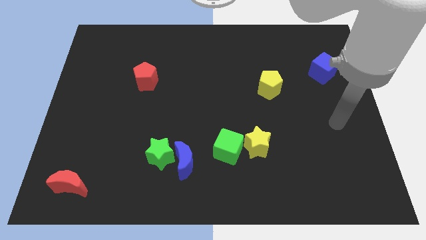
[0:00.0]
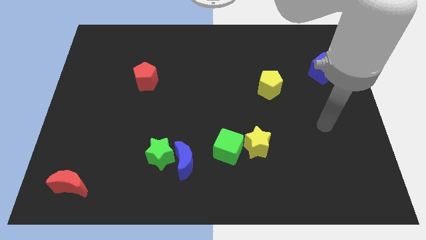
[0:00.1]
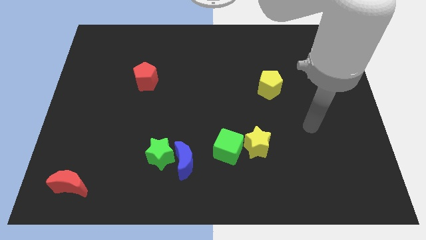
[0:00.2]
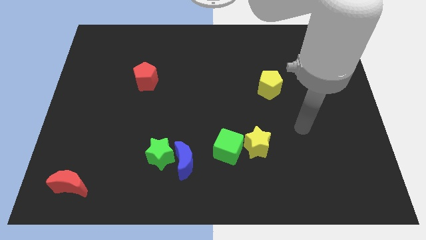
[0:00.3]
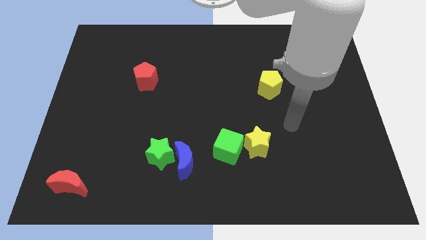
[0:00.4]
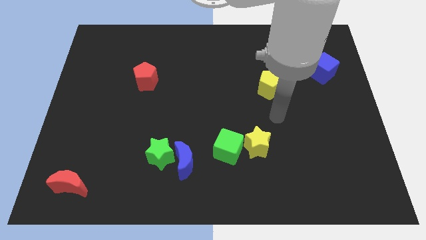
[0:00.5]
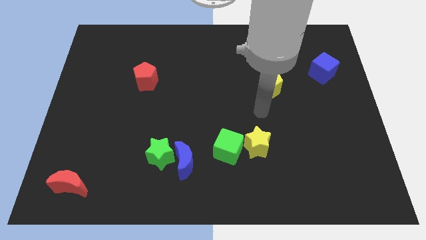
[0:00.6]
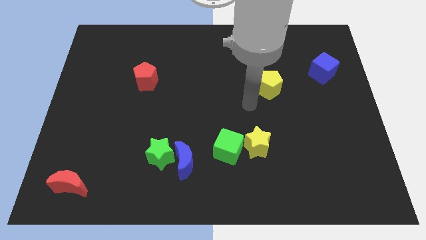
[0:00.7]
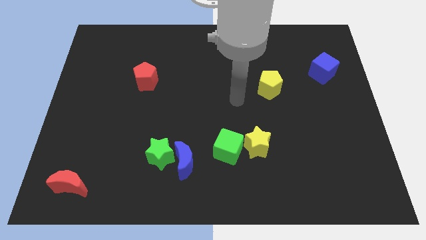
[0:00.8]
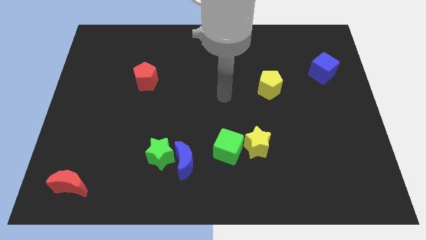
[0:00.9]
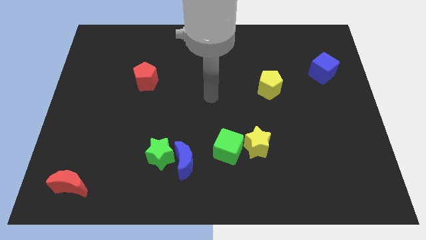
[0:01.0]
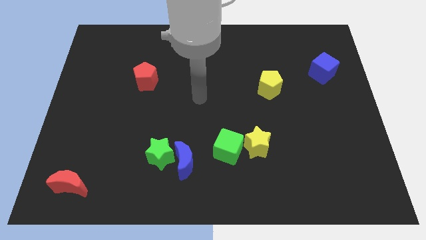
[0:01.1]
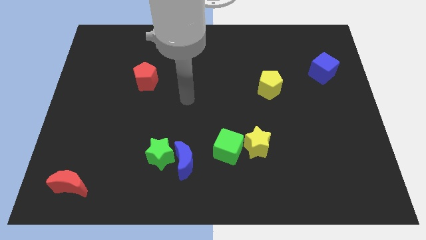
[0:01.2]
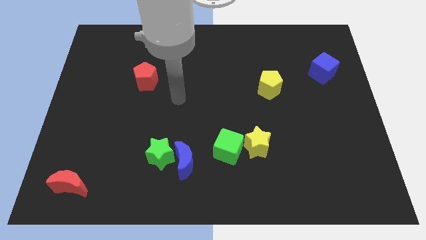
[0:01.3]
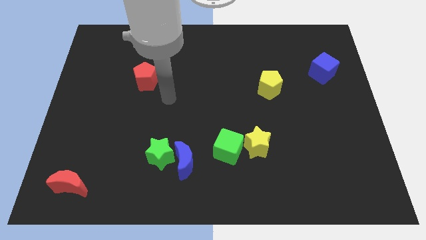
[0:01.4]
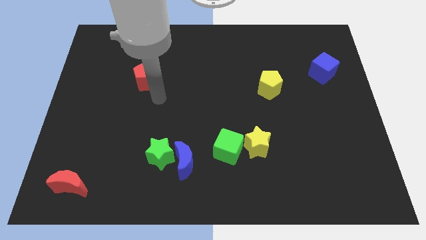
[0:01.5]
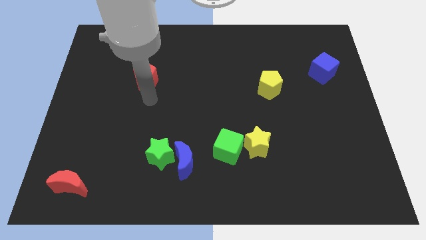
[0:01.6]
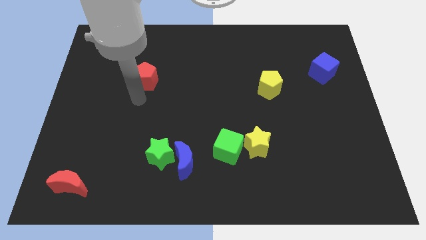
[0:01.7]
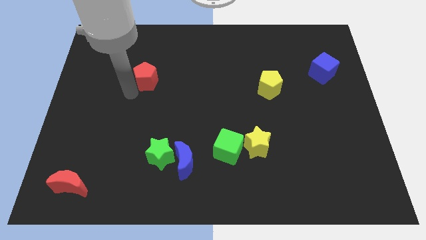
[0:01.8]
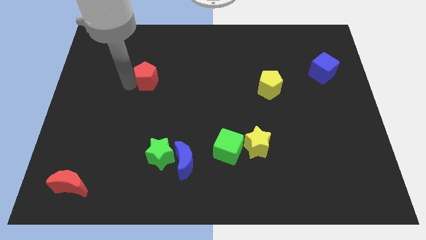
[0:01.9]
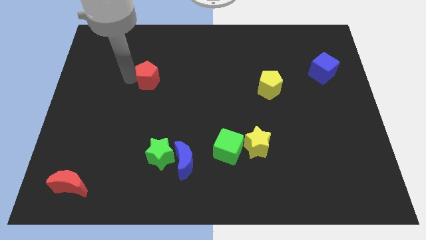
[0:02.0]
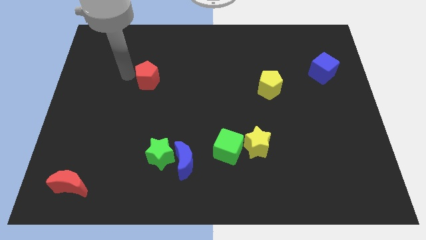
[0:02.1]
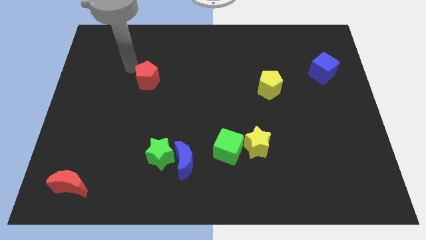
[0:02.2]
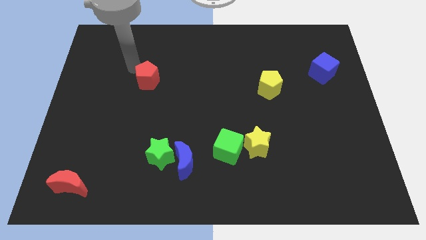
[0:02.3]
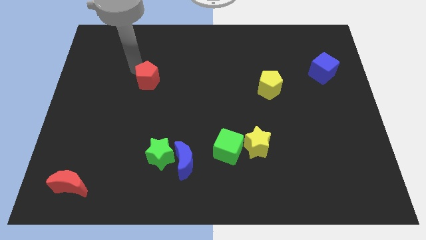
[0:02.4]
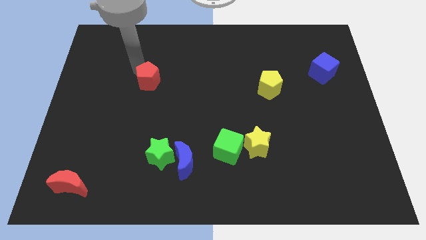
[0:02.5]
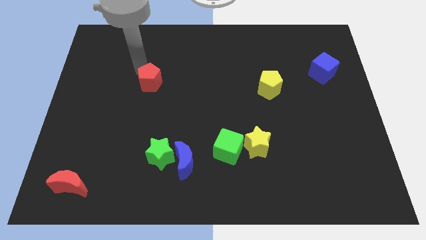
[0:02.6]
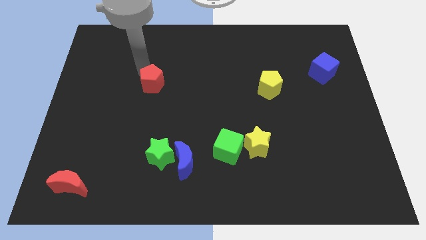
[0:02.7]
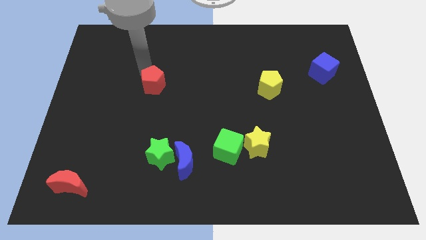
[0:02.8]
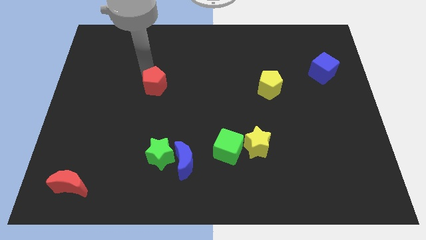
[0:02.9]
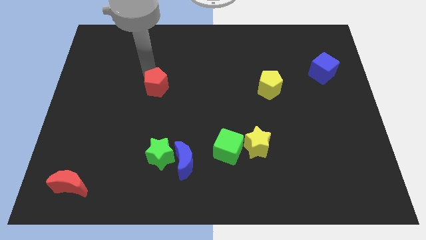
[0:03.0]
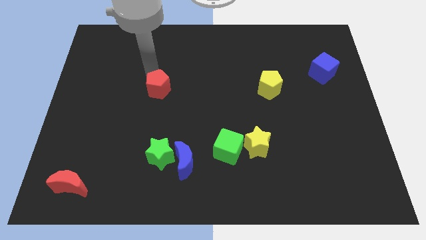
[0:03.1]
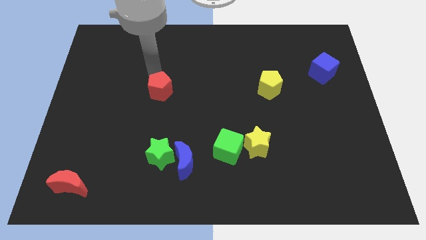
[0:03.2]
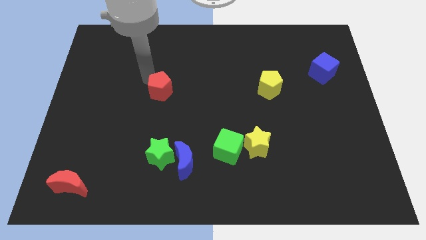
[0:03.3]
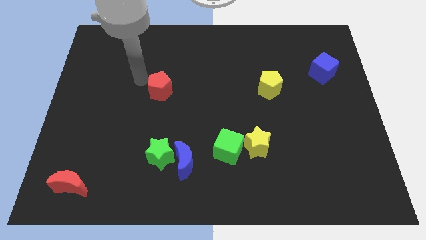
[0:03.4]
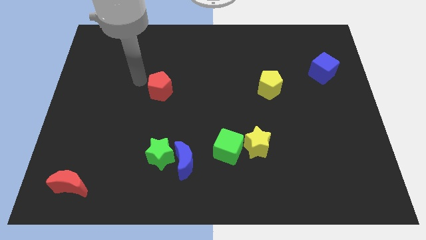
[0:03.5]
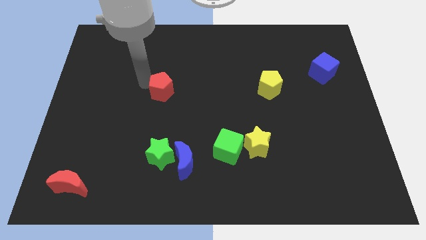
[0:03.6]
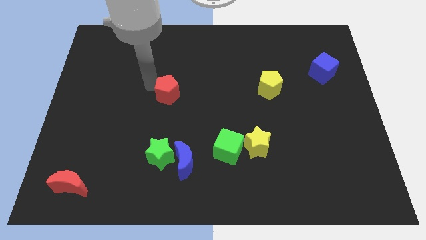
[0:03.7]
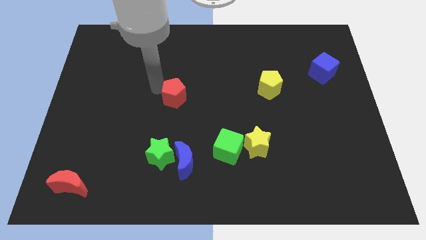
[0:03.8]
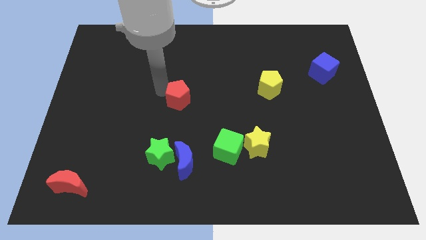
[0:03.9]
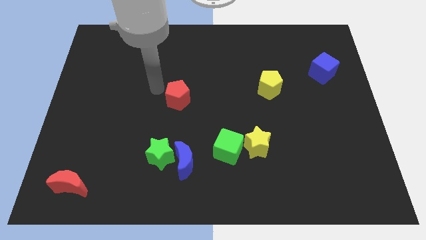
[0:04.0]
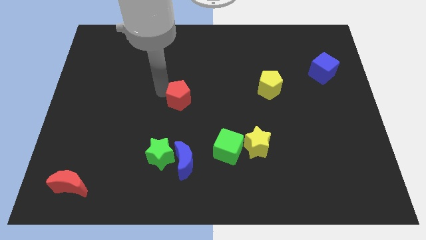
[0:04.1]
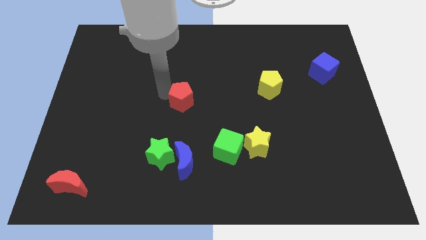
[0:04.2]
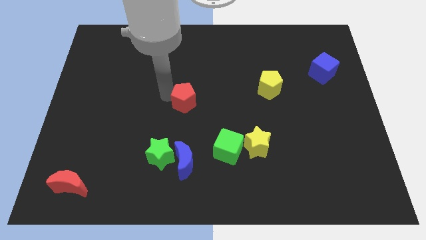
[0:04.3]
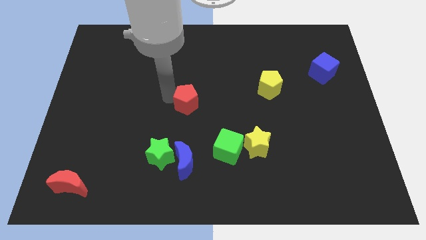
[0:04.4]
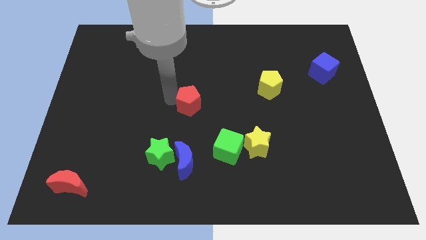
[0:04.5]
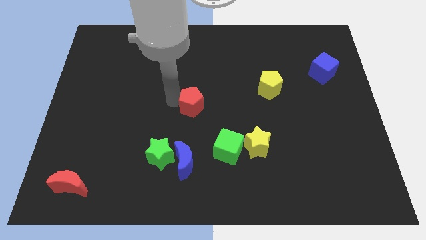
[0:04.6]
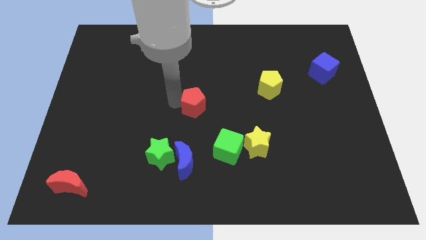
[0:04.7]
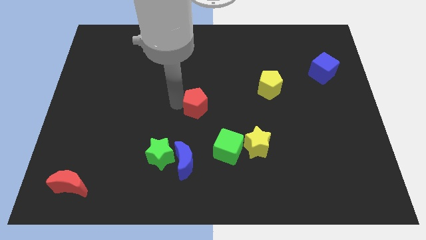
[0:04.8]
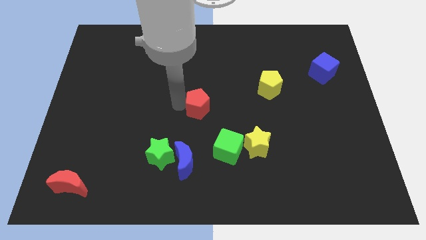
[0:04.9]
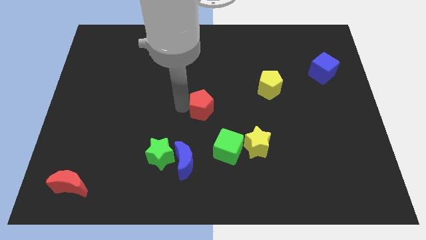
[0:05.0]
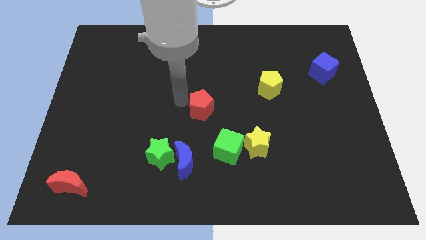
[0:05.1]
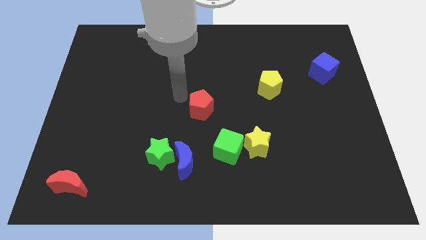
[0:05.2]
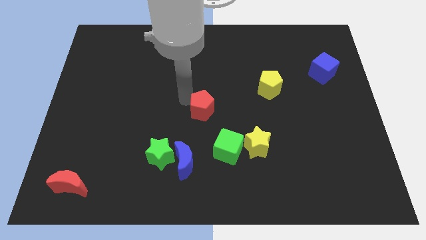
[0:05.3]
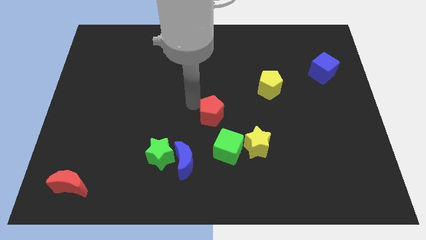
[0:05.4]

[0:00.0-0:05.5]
slide the red pentagon to the top left of the yellow star
